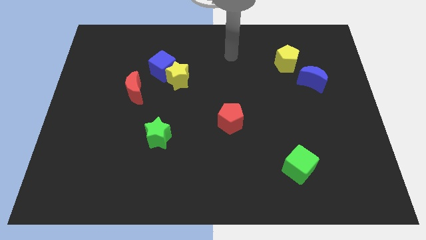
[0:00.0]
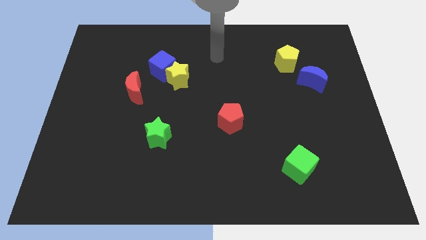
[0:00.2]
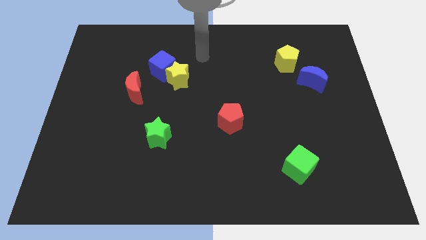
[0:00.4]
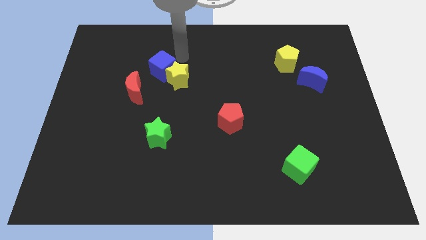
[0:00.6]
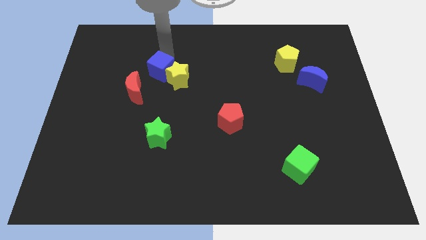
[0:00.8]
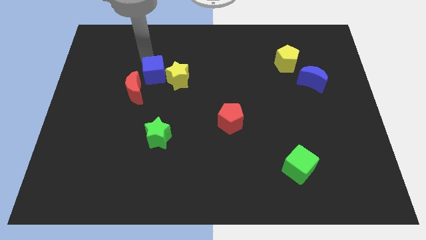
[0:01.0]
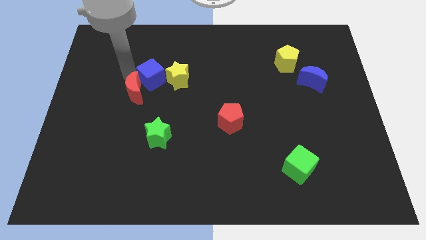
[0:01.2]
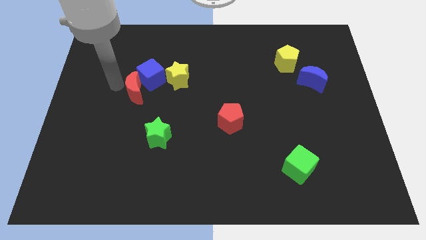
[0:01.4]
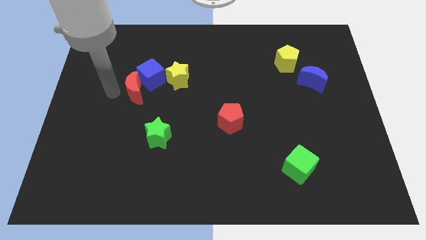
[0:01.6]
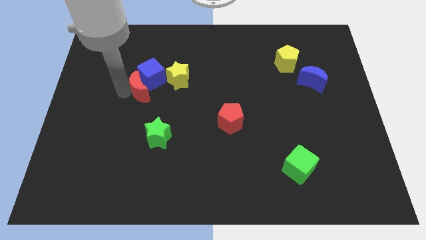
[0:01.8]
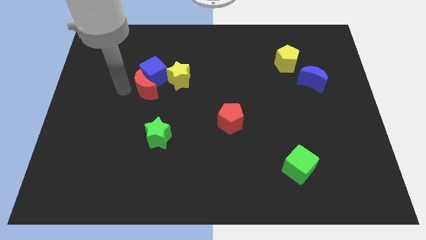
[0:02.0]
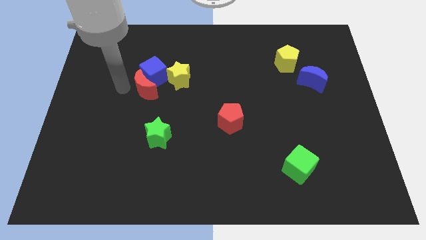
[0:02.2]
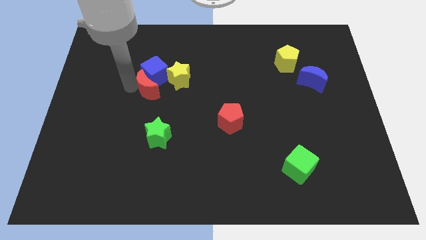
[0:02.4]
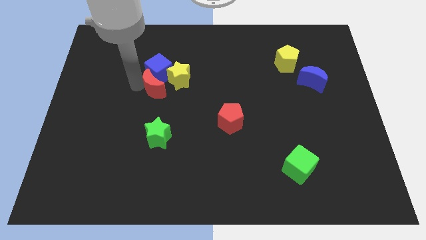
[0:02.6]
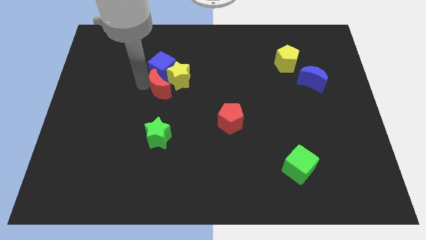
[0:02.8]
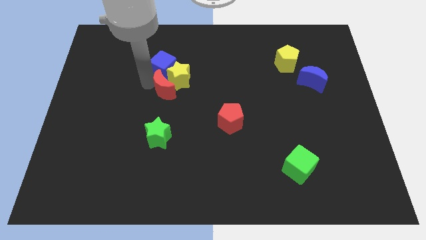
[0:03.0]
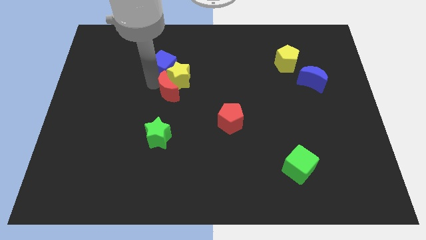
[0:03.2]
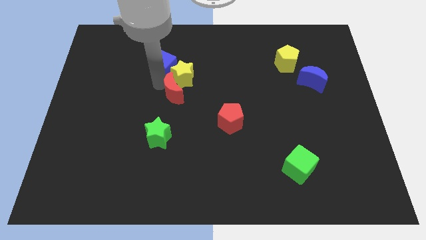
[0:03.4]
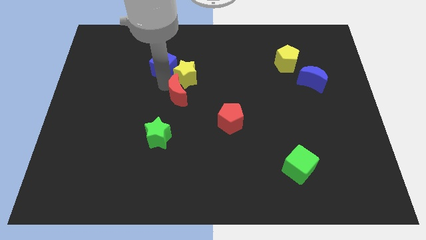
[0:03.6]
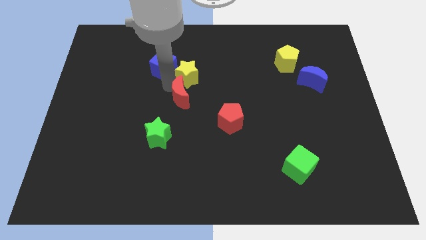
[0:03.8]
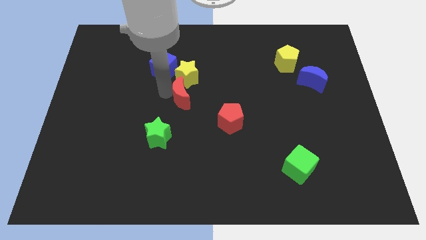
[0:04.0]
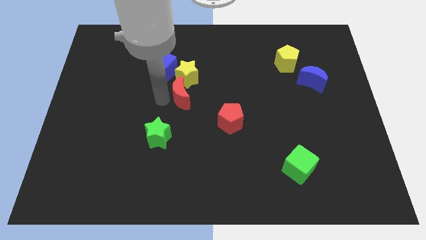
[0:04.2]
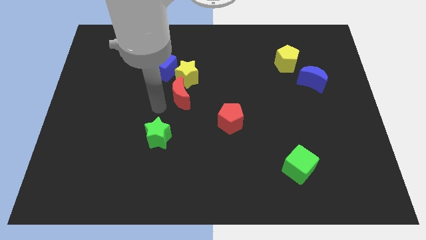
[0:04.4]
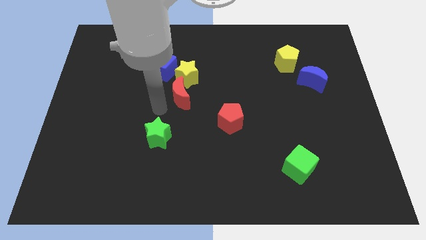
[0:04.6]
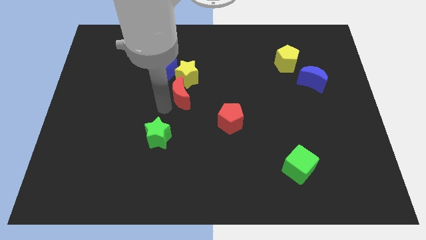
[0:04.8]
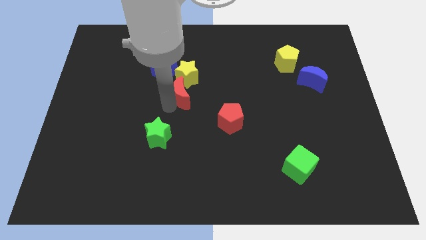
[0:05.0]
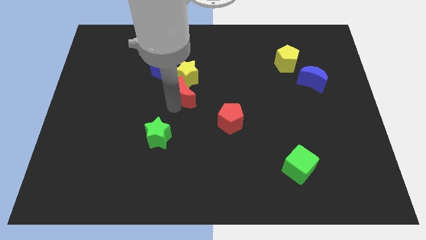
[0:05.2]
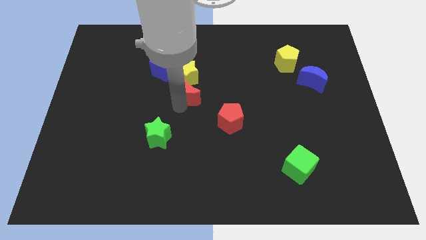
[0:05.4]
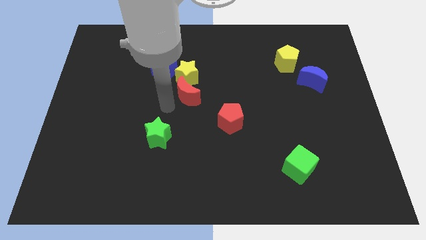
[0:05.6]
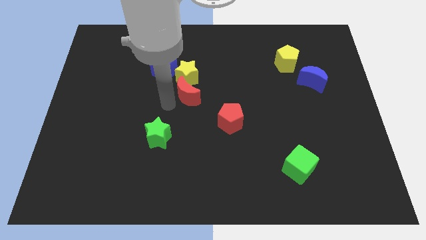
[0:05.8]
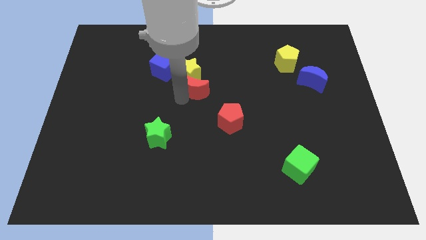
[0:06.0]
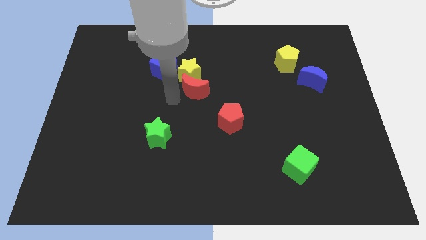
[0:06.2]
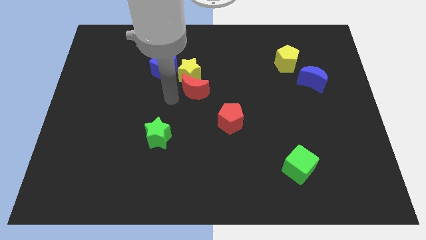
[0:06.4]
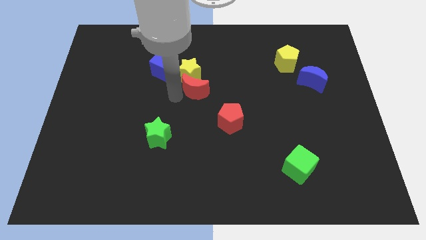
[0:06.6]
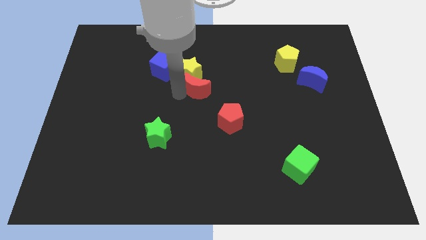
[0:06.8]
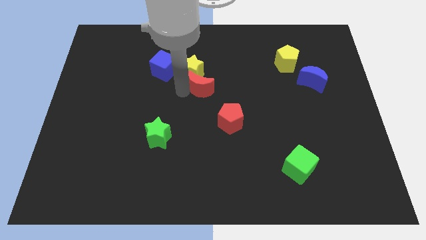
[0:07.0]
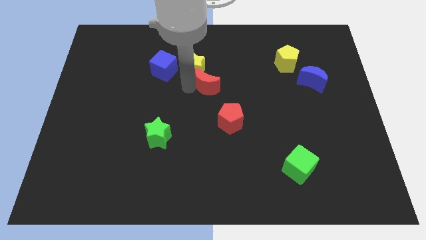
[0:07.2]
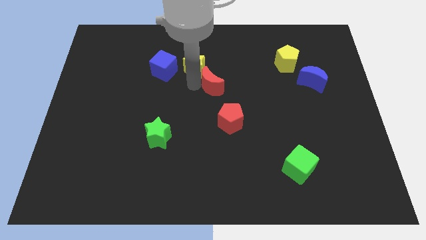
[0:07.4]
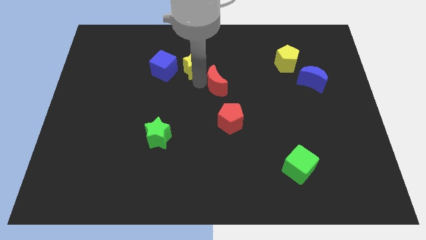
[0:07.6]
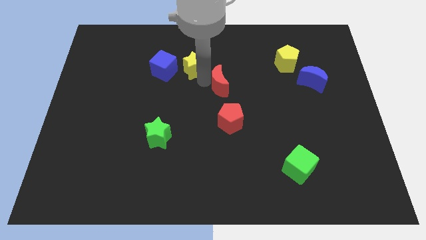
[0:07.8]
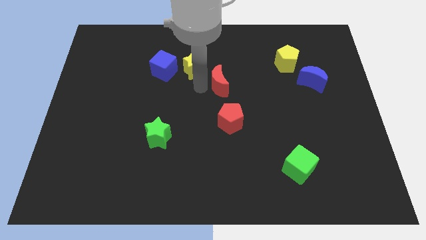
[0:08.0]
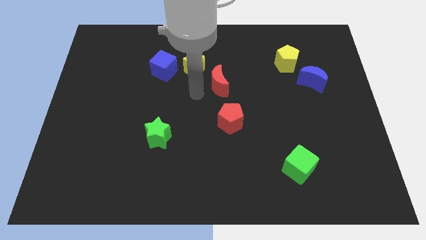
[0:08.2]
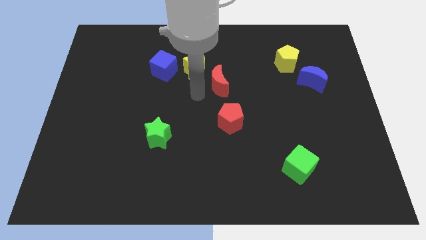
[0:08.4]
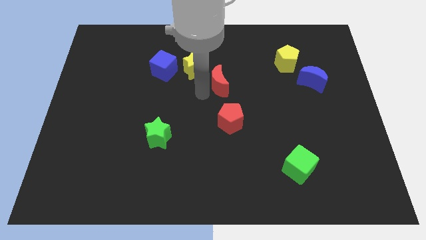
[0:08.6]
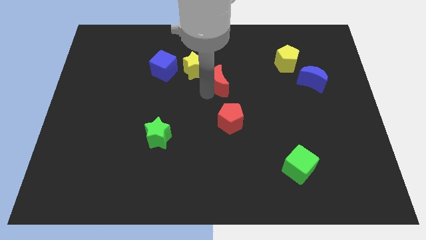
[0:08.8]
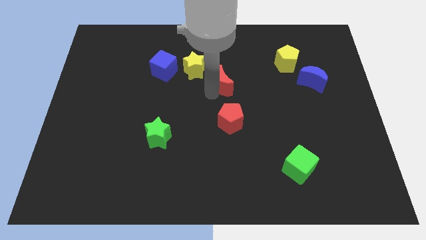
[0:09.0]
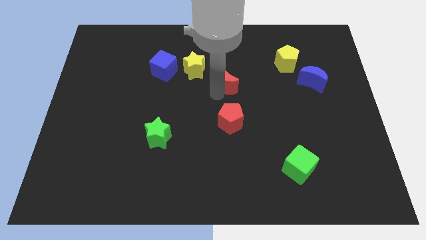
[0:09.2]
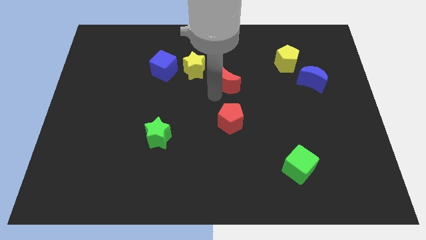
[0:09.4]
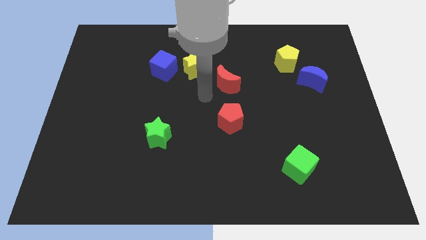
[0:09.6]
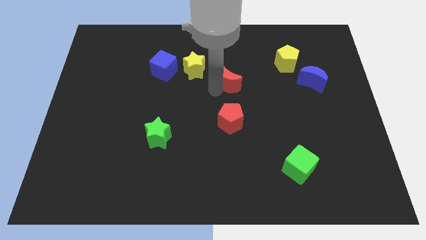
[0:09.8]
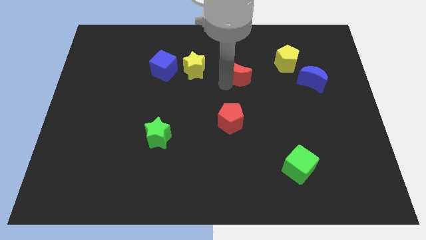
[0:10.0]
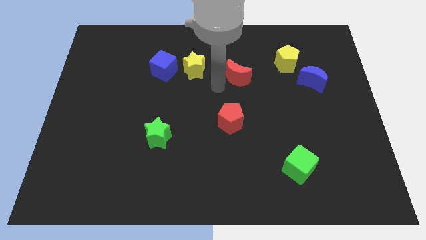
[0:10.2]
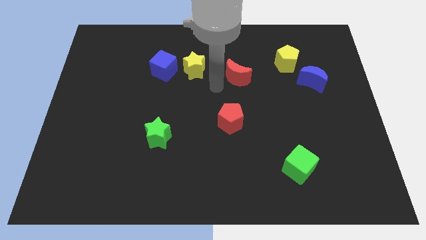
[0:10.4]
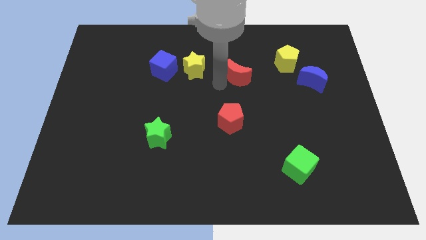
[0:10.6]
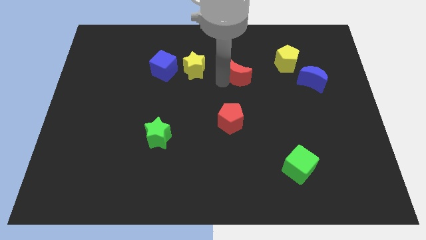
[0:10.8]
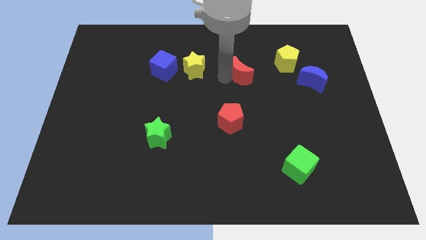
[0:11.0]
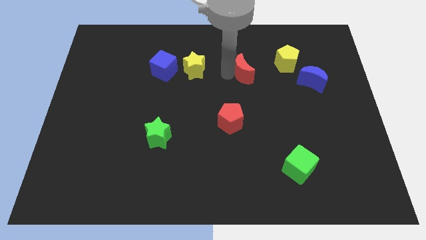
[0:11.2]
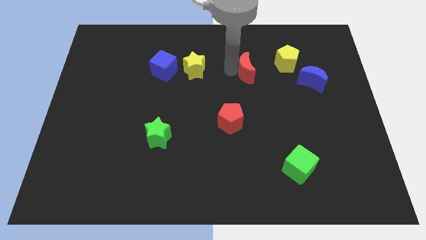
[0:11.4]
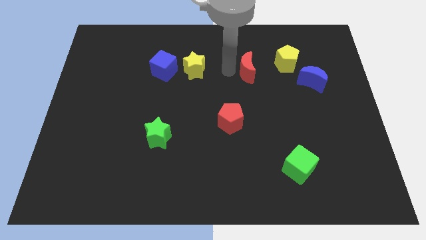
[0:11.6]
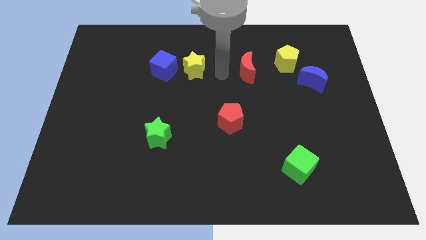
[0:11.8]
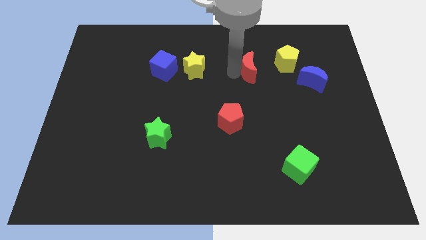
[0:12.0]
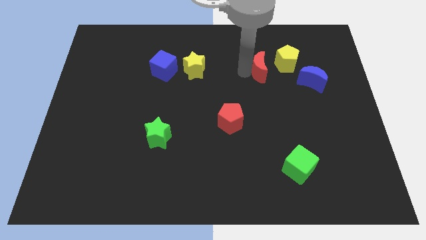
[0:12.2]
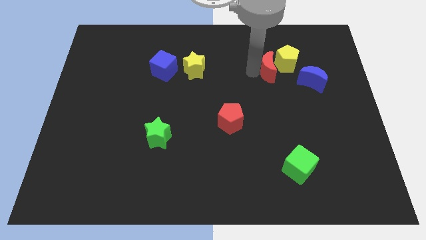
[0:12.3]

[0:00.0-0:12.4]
slide the red moon towards the yellow pentagon

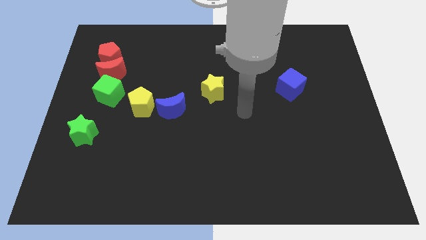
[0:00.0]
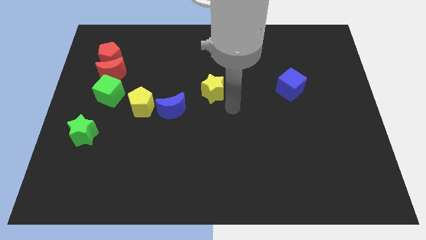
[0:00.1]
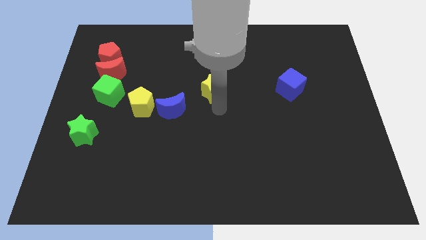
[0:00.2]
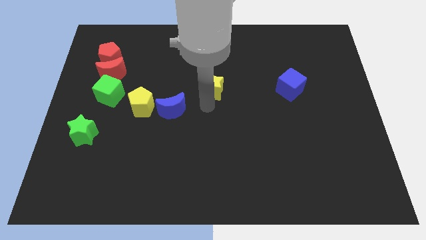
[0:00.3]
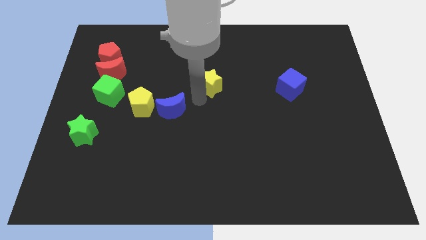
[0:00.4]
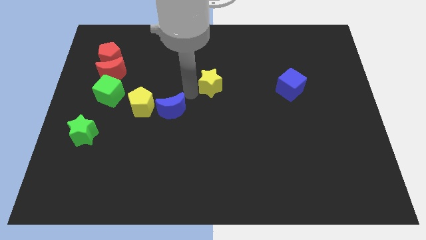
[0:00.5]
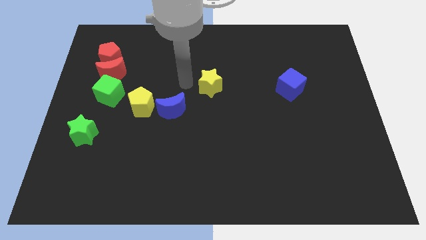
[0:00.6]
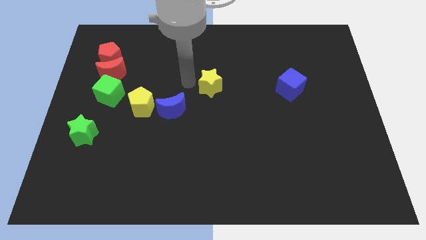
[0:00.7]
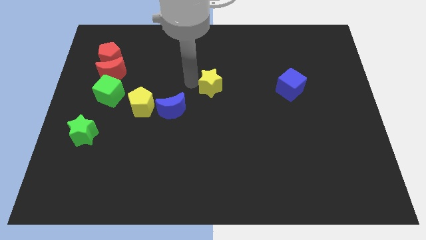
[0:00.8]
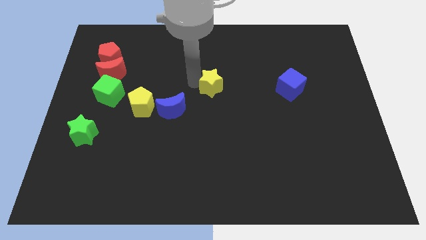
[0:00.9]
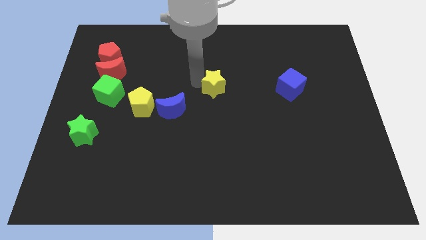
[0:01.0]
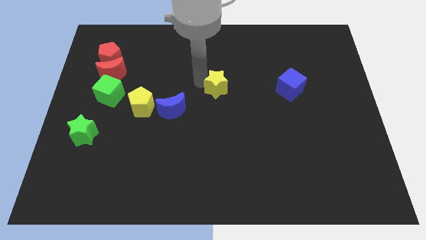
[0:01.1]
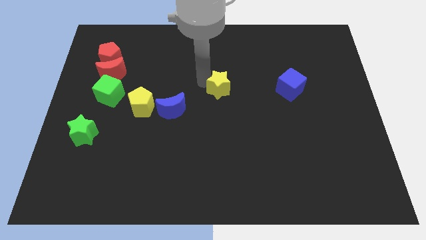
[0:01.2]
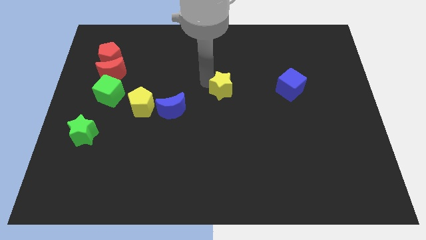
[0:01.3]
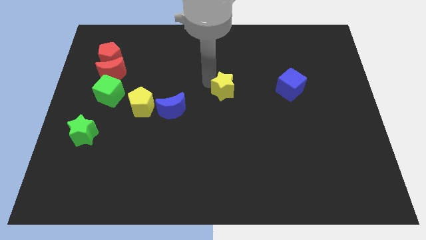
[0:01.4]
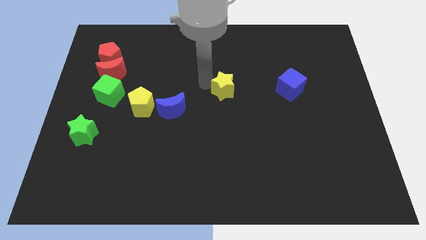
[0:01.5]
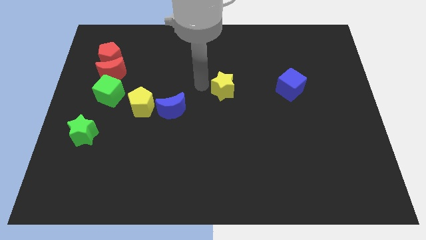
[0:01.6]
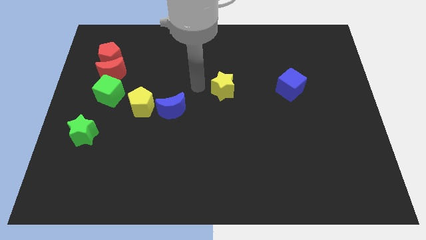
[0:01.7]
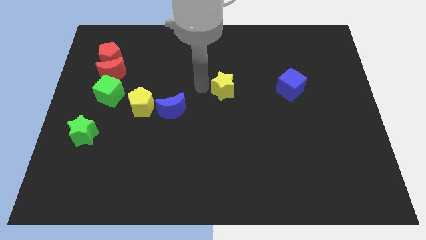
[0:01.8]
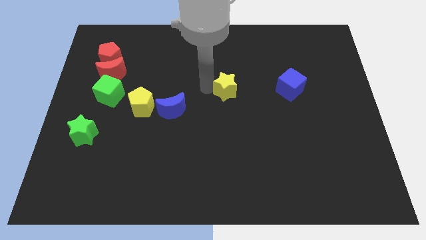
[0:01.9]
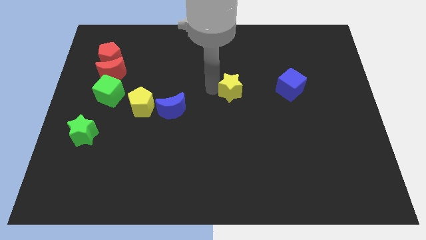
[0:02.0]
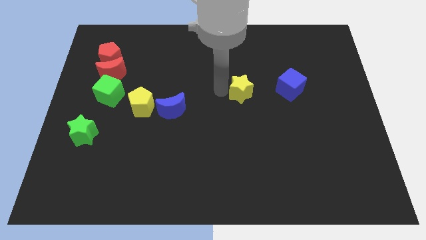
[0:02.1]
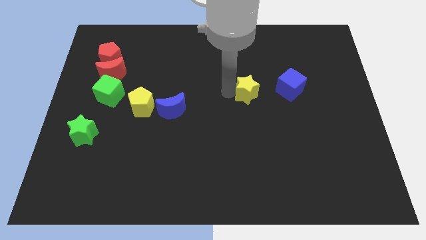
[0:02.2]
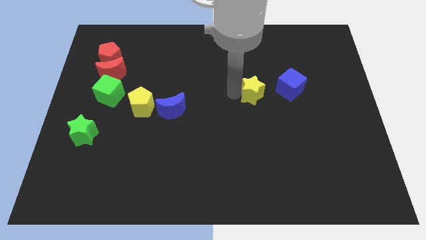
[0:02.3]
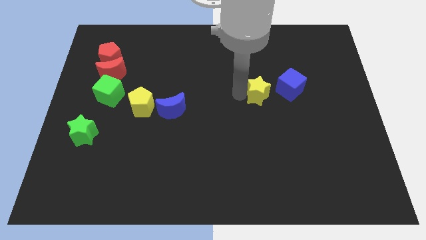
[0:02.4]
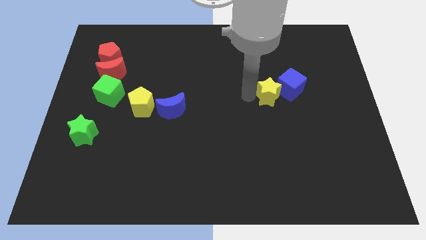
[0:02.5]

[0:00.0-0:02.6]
put the yellow star next to the blue cube
